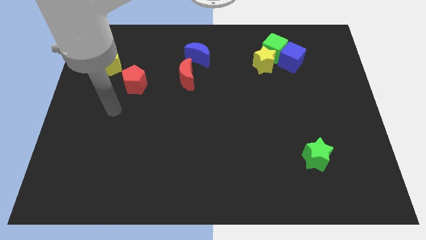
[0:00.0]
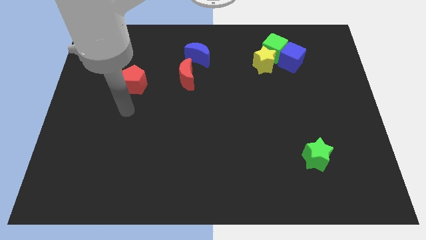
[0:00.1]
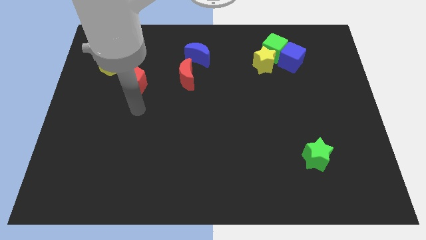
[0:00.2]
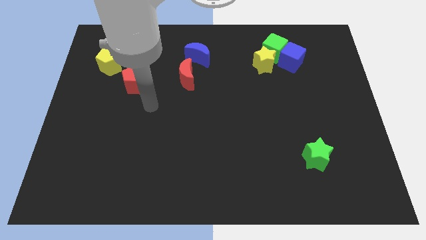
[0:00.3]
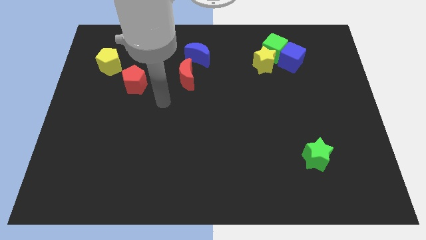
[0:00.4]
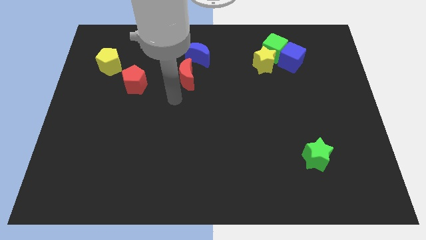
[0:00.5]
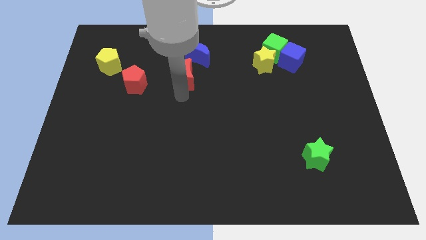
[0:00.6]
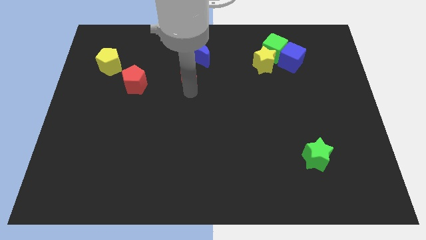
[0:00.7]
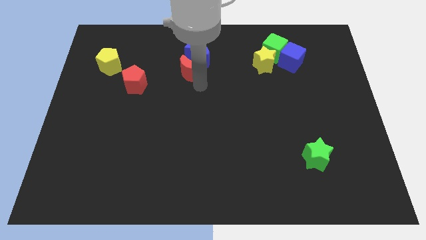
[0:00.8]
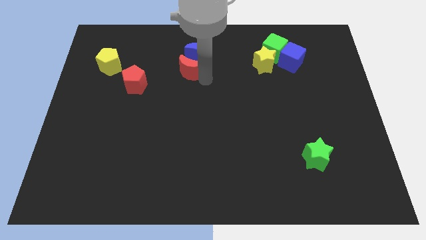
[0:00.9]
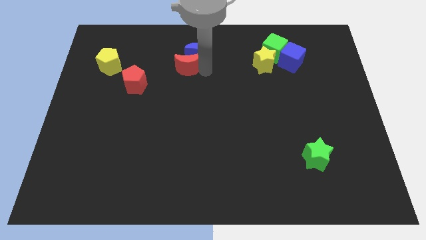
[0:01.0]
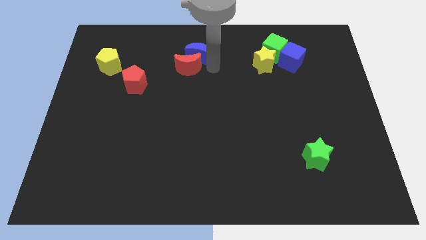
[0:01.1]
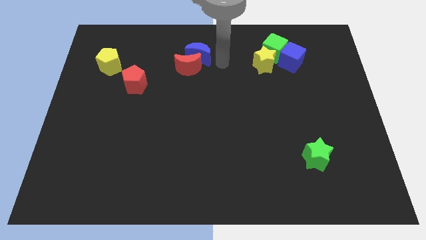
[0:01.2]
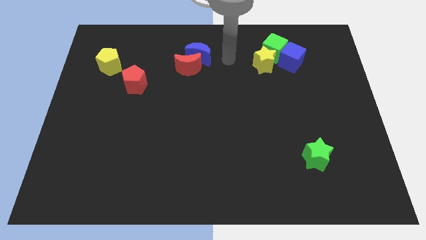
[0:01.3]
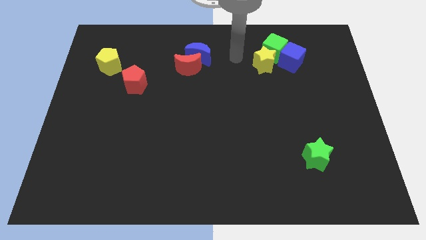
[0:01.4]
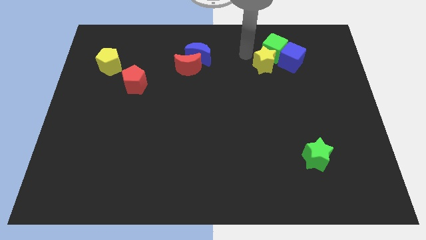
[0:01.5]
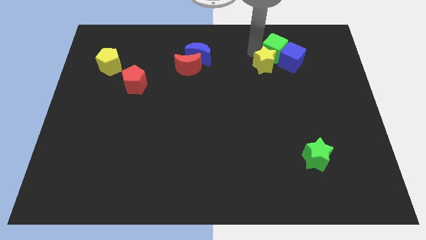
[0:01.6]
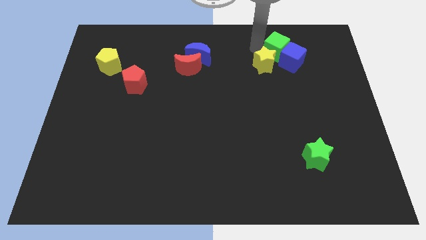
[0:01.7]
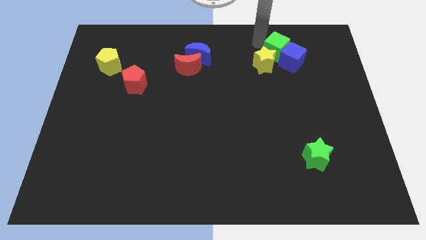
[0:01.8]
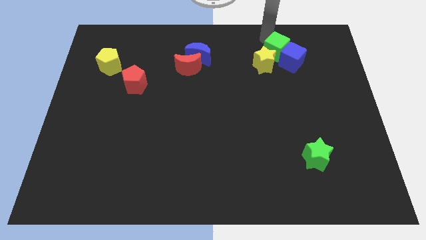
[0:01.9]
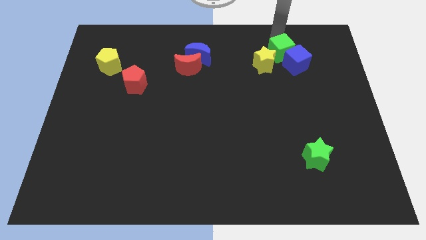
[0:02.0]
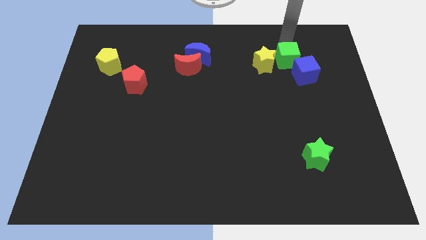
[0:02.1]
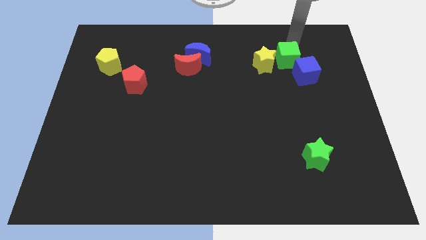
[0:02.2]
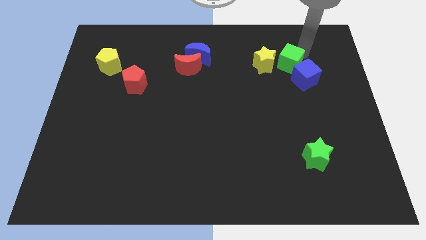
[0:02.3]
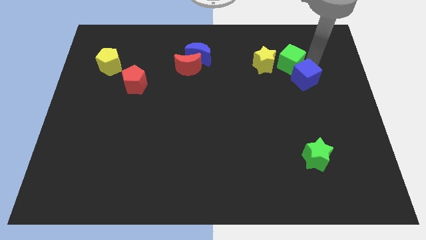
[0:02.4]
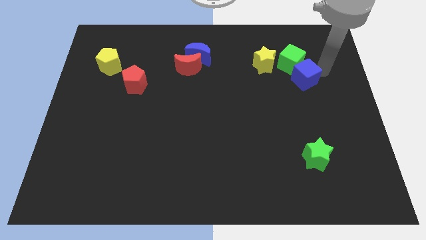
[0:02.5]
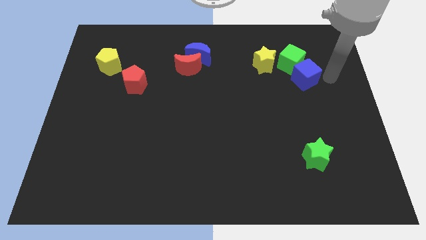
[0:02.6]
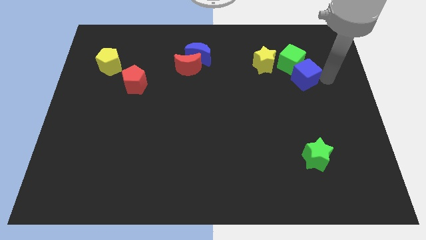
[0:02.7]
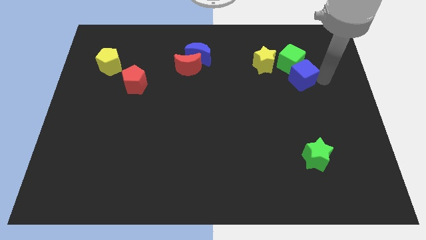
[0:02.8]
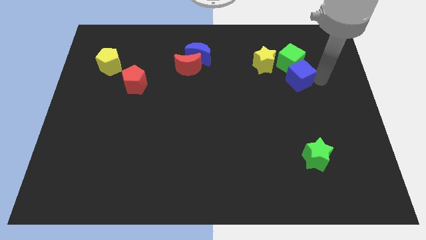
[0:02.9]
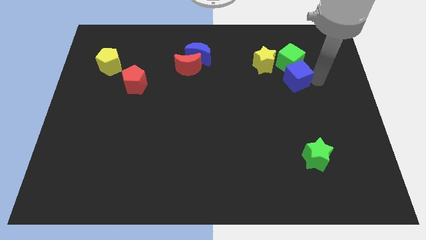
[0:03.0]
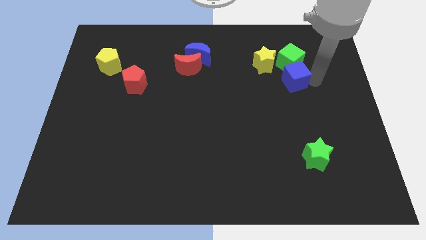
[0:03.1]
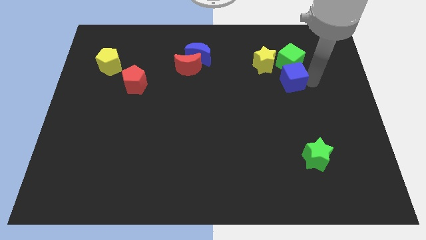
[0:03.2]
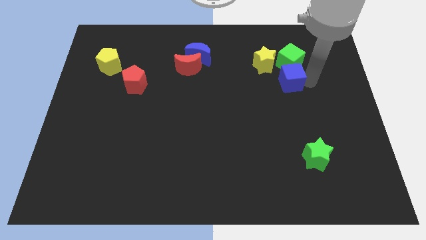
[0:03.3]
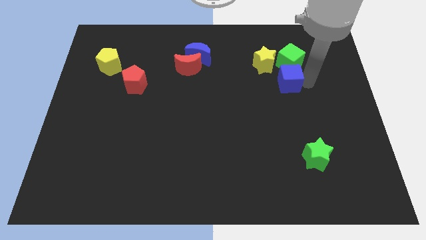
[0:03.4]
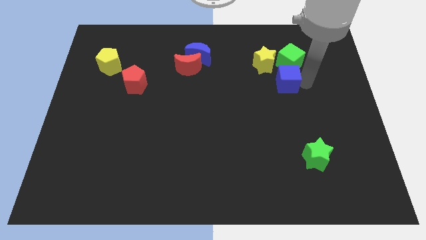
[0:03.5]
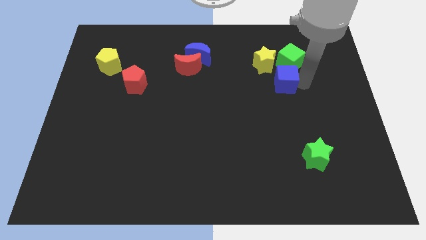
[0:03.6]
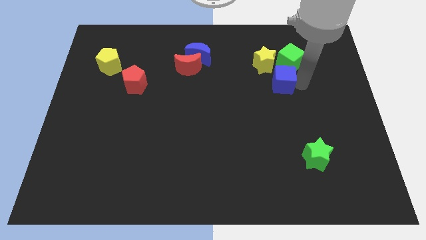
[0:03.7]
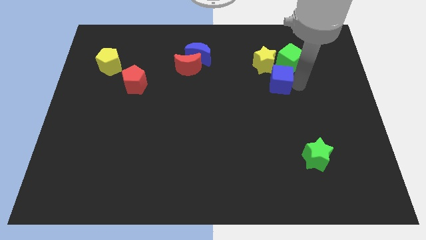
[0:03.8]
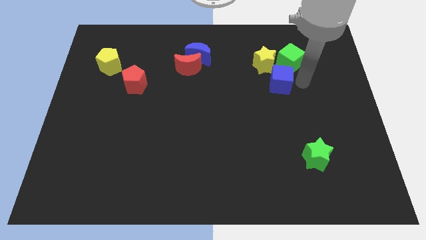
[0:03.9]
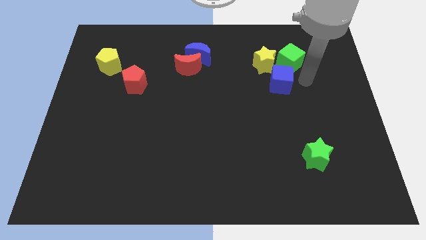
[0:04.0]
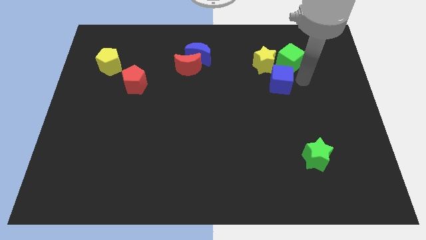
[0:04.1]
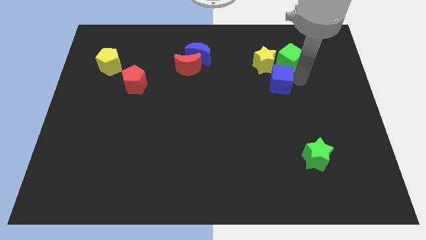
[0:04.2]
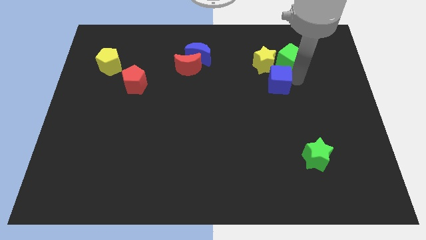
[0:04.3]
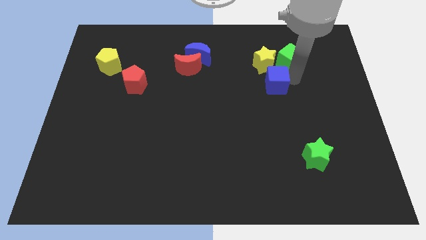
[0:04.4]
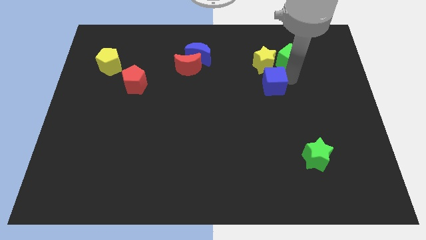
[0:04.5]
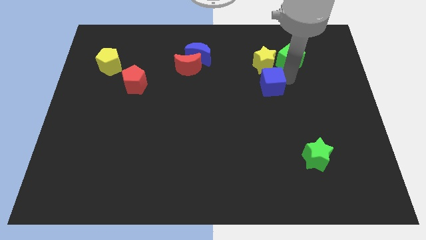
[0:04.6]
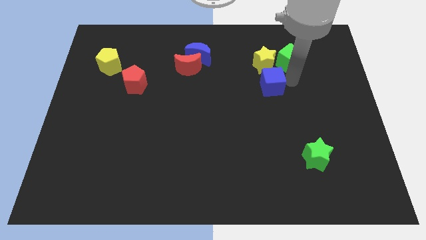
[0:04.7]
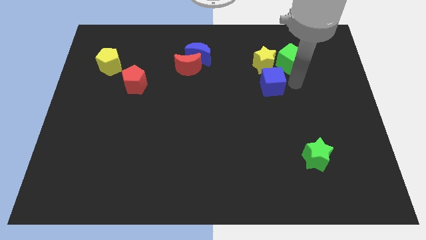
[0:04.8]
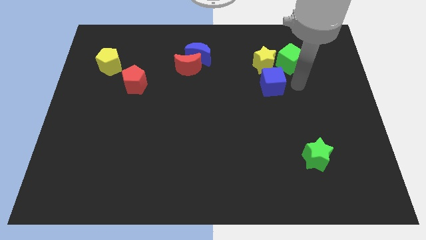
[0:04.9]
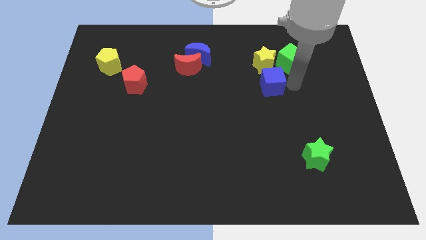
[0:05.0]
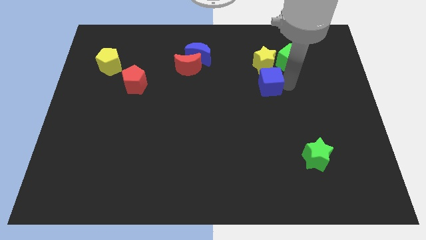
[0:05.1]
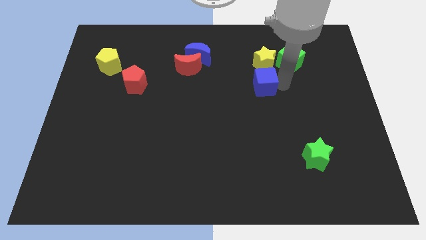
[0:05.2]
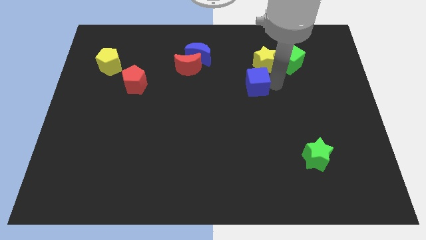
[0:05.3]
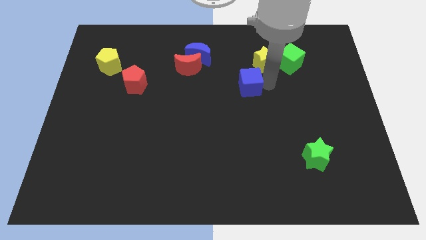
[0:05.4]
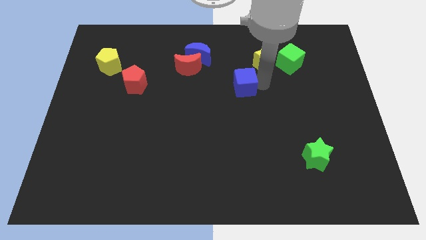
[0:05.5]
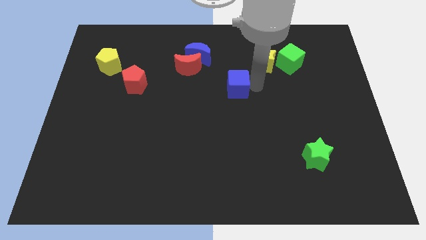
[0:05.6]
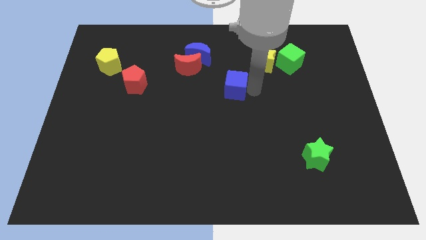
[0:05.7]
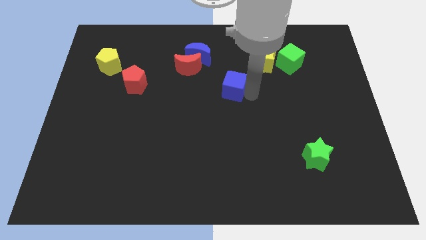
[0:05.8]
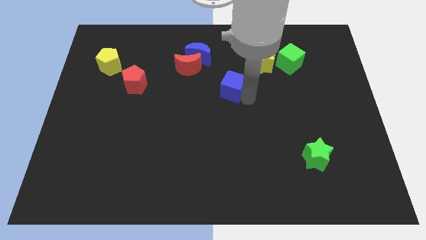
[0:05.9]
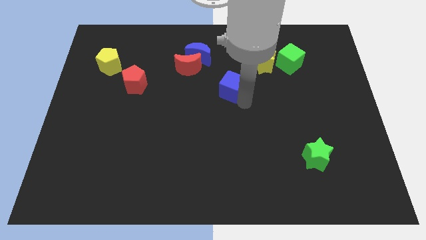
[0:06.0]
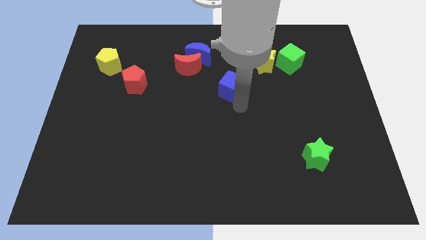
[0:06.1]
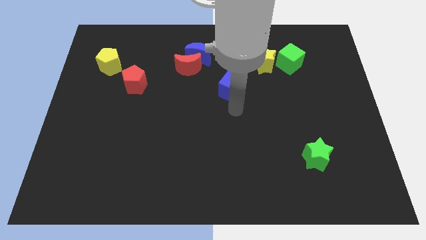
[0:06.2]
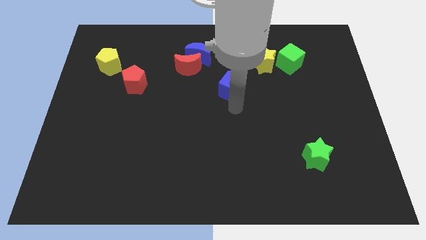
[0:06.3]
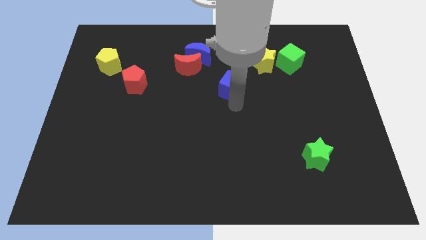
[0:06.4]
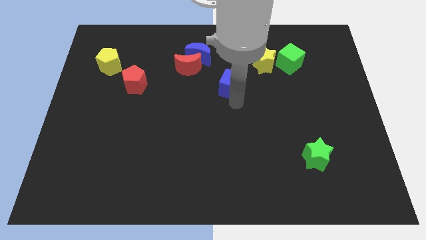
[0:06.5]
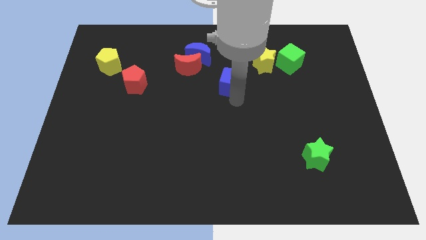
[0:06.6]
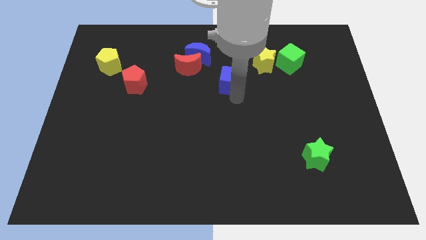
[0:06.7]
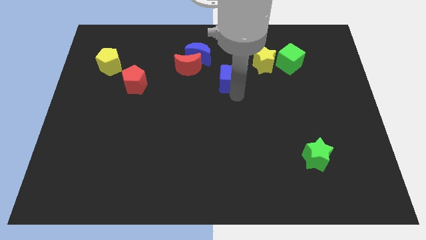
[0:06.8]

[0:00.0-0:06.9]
move the blue cube to the right of the red moon
